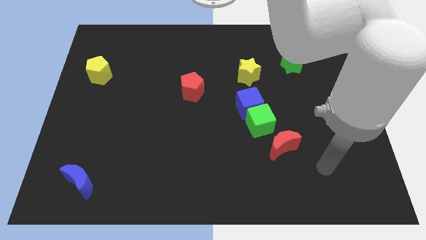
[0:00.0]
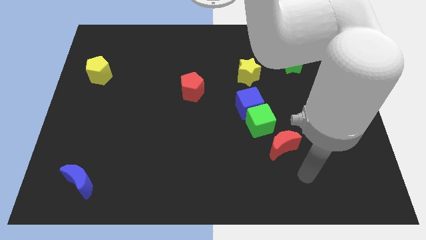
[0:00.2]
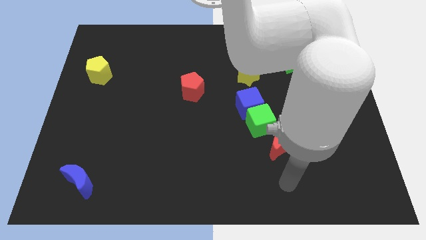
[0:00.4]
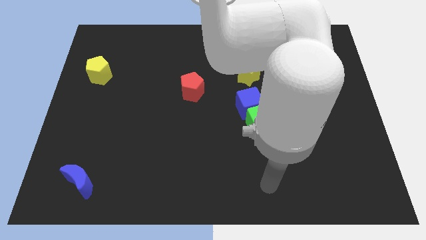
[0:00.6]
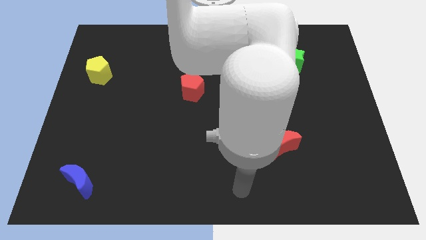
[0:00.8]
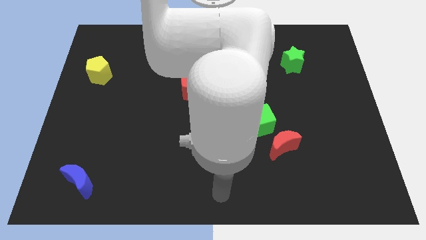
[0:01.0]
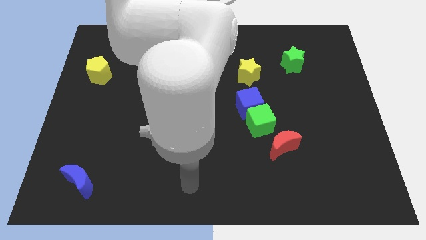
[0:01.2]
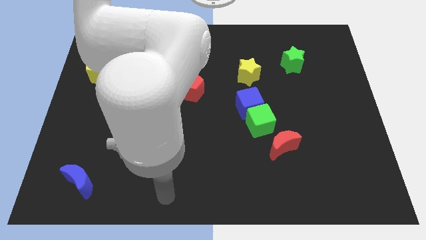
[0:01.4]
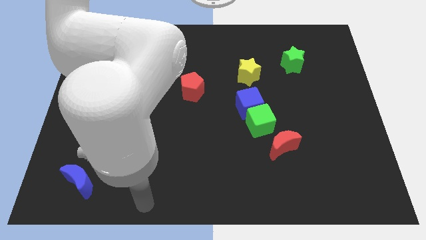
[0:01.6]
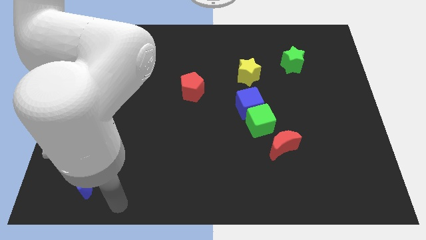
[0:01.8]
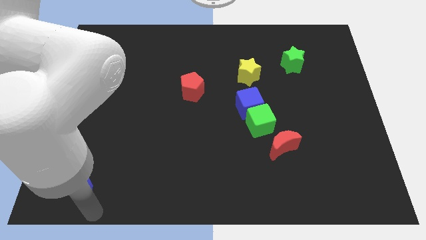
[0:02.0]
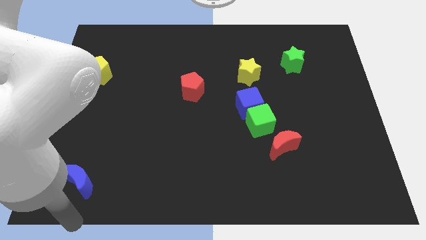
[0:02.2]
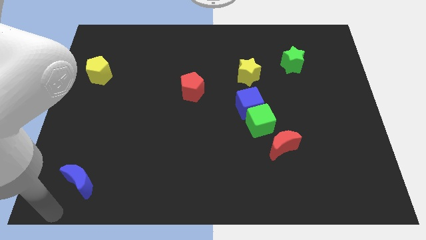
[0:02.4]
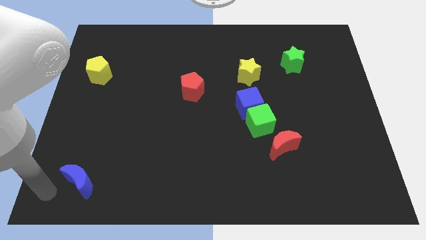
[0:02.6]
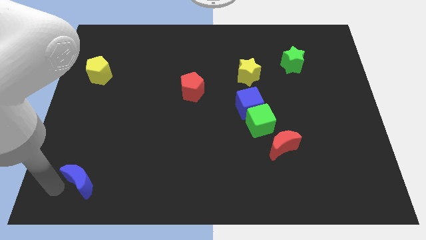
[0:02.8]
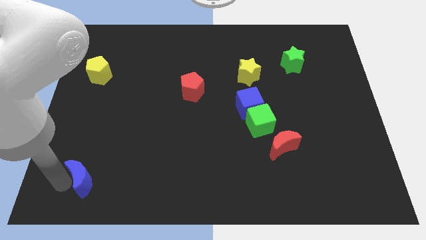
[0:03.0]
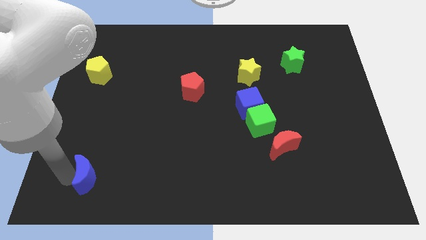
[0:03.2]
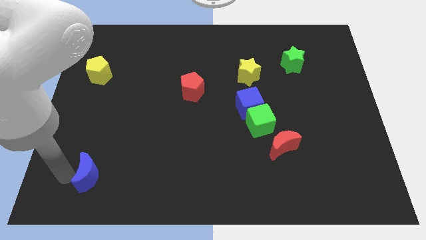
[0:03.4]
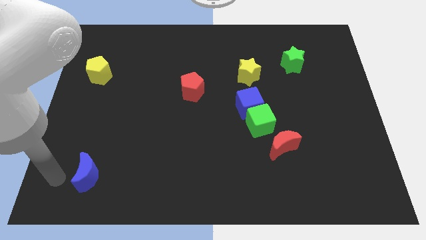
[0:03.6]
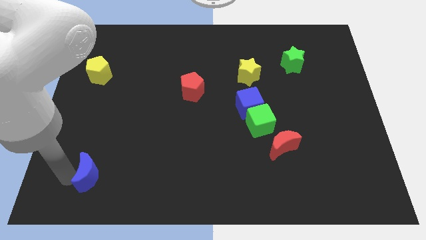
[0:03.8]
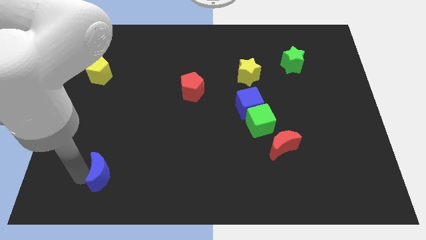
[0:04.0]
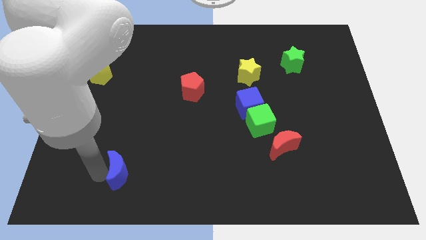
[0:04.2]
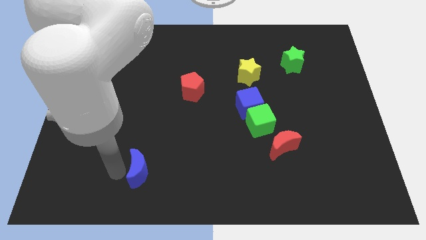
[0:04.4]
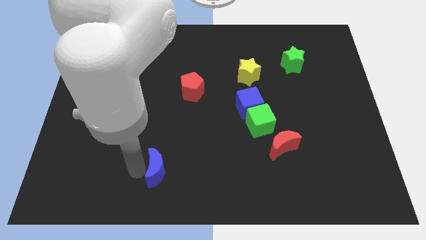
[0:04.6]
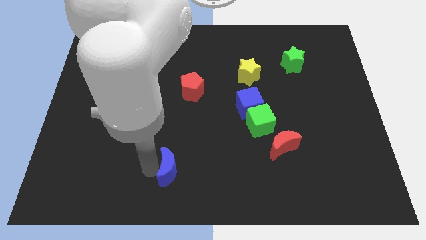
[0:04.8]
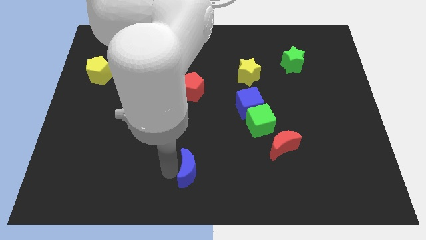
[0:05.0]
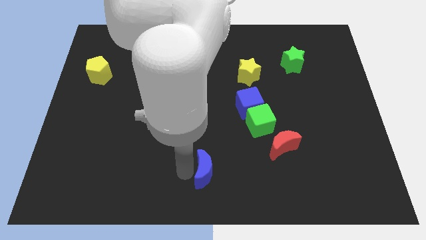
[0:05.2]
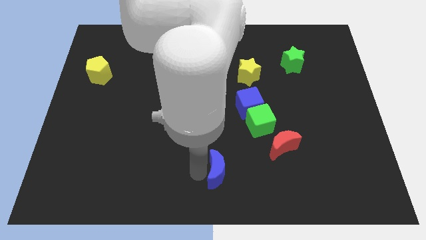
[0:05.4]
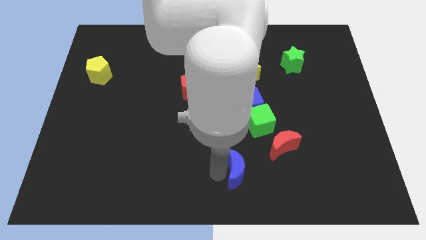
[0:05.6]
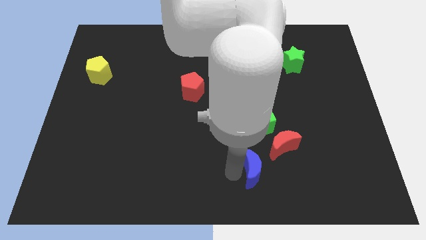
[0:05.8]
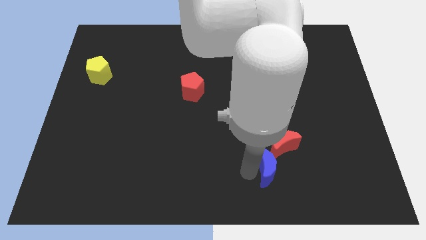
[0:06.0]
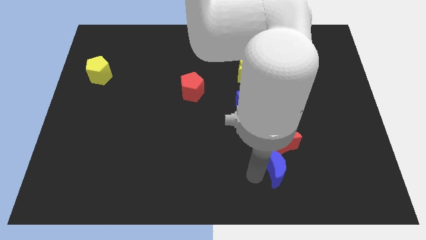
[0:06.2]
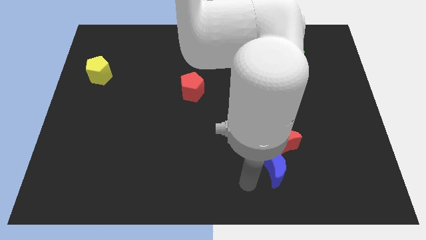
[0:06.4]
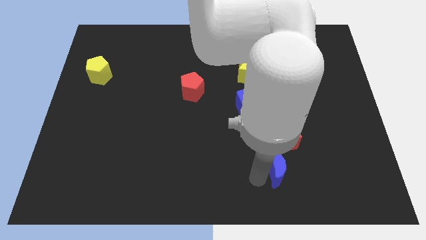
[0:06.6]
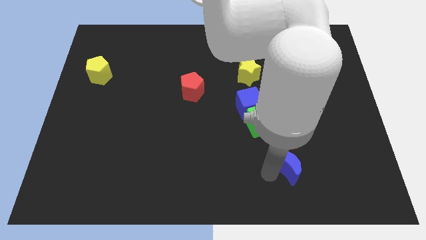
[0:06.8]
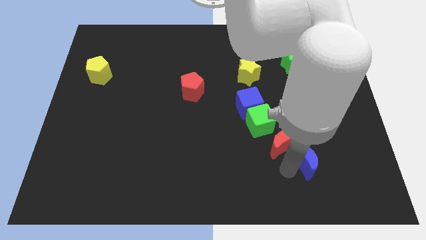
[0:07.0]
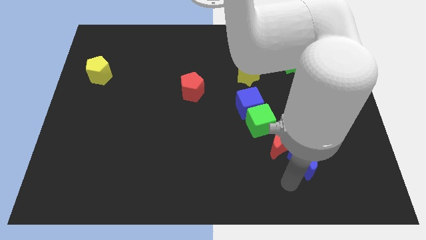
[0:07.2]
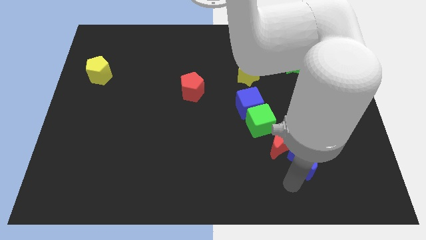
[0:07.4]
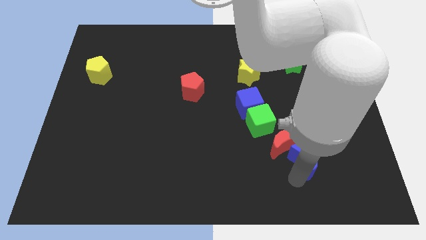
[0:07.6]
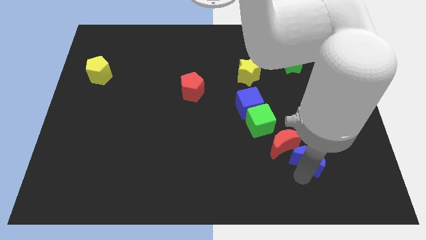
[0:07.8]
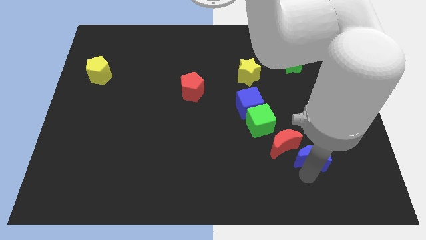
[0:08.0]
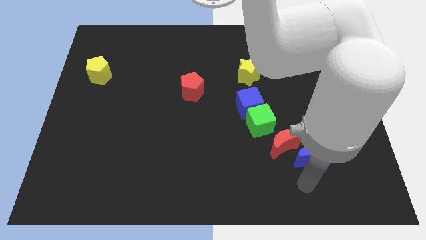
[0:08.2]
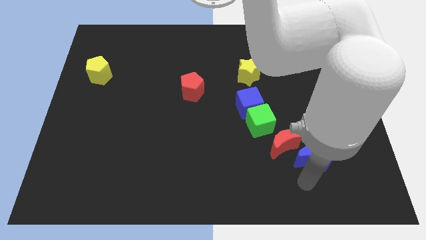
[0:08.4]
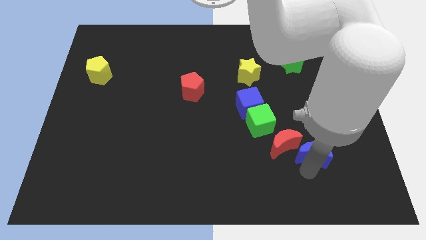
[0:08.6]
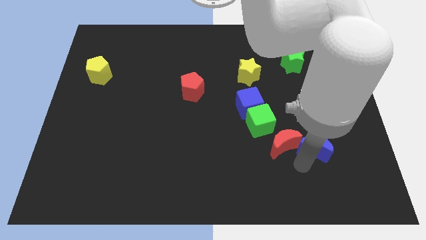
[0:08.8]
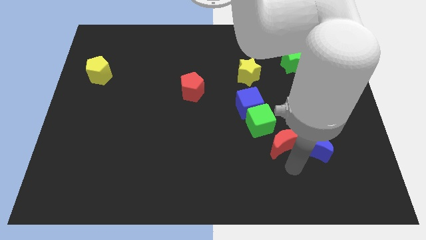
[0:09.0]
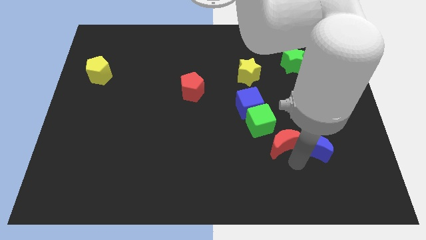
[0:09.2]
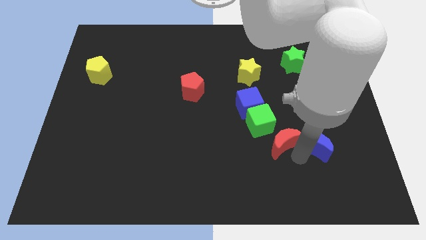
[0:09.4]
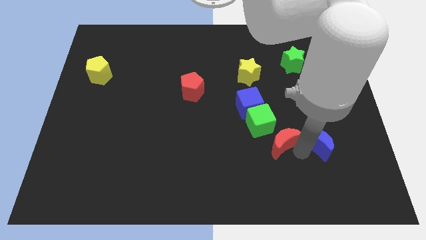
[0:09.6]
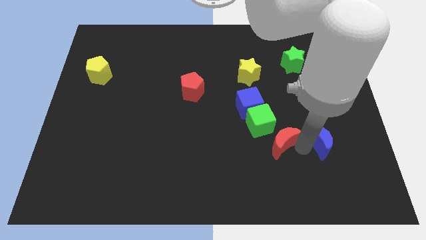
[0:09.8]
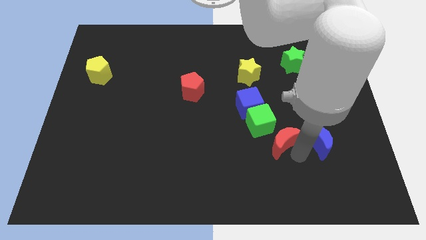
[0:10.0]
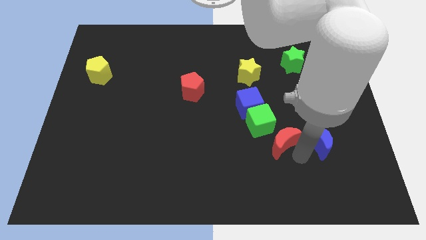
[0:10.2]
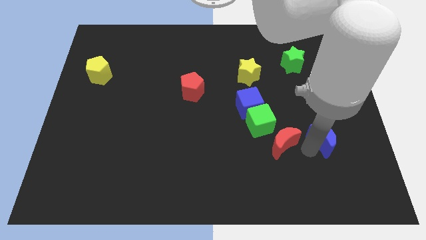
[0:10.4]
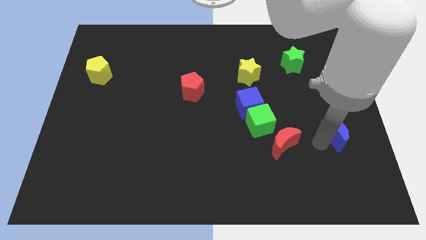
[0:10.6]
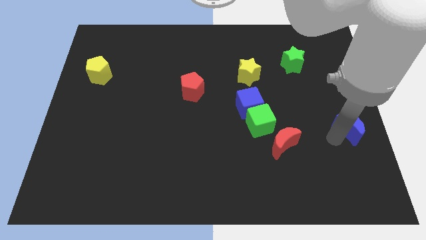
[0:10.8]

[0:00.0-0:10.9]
put the blue moon to the center right
